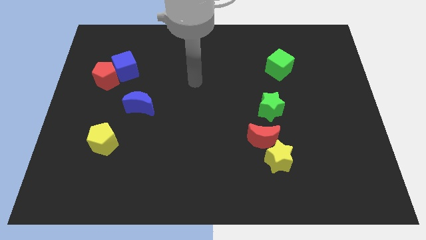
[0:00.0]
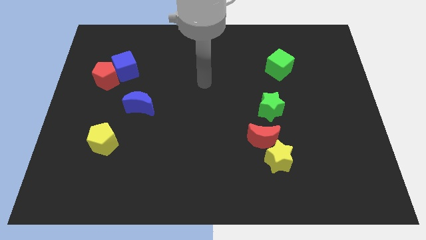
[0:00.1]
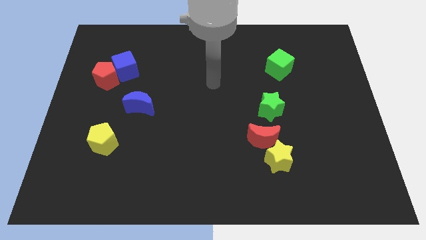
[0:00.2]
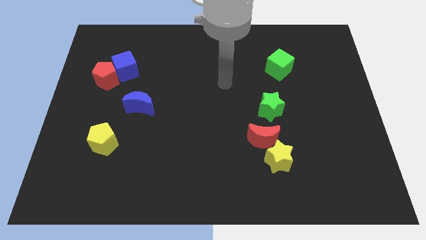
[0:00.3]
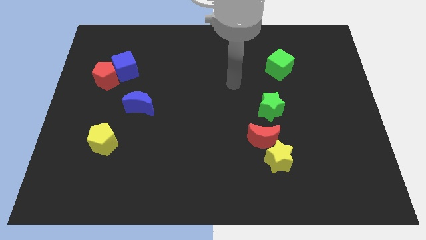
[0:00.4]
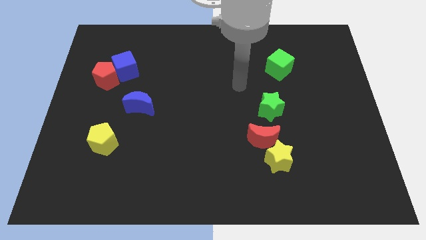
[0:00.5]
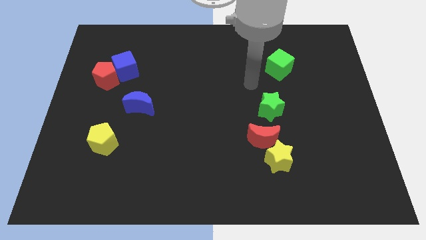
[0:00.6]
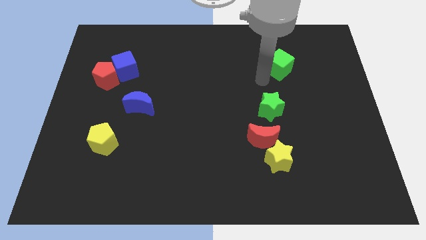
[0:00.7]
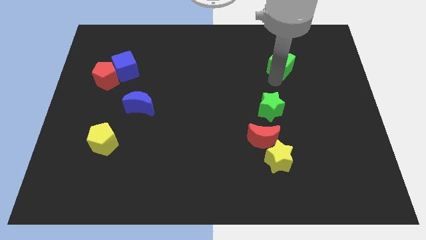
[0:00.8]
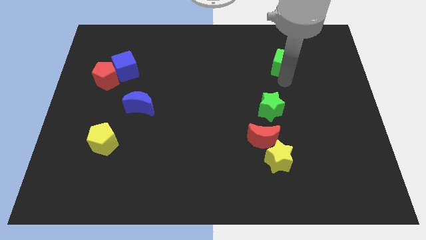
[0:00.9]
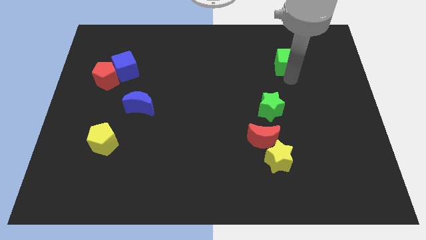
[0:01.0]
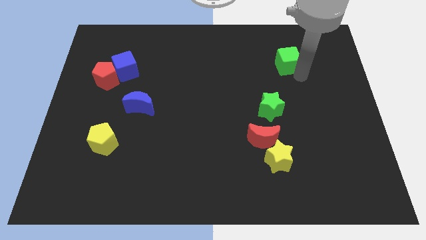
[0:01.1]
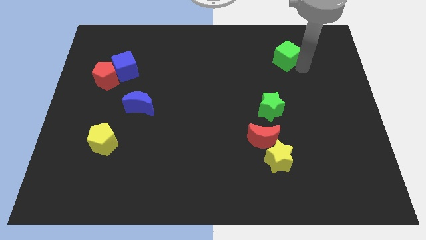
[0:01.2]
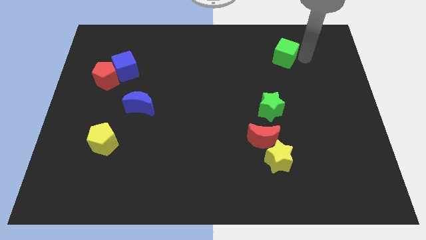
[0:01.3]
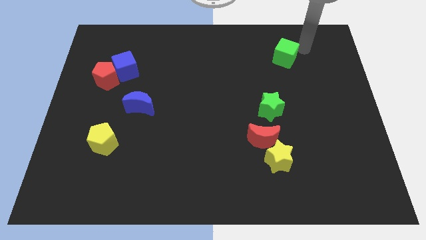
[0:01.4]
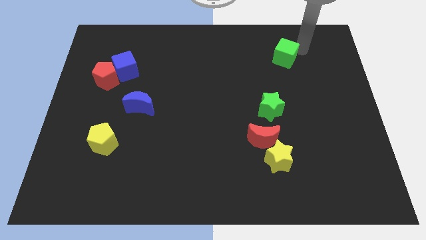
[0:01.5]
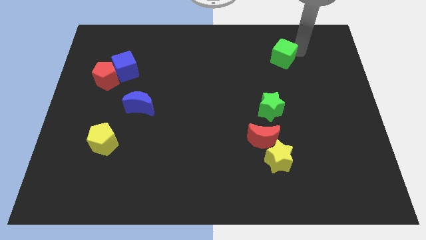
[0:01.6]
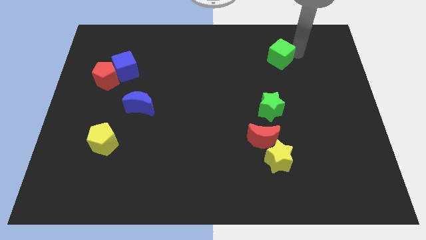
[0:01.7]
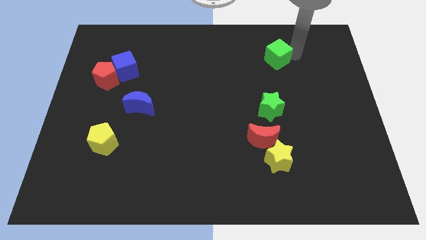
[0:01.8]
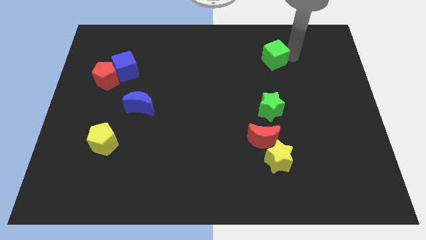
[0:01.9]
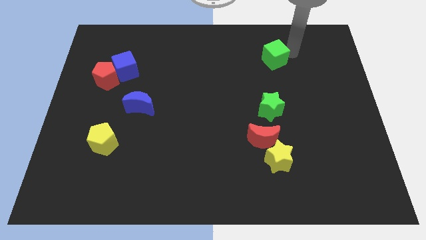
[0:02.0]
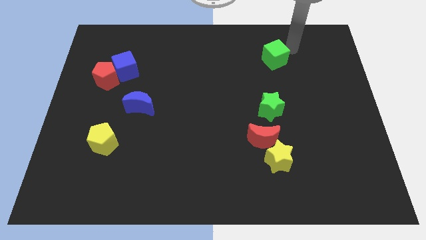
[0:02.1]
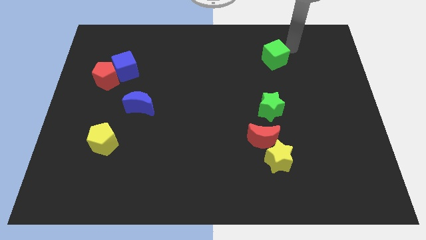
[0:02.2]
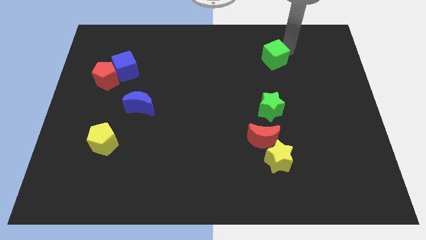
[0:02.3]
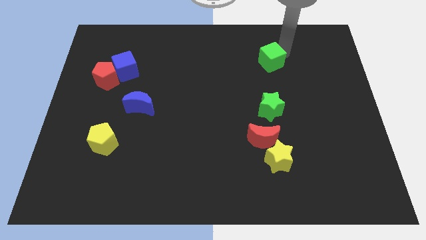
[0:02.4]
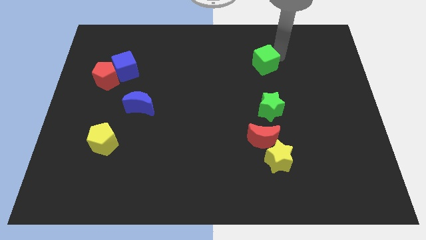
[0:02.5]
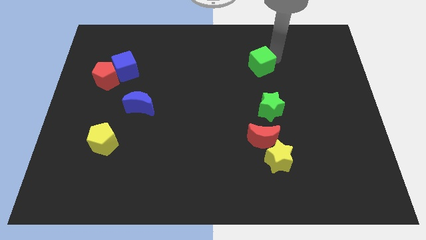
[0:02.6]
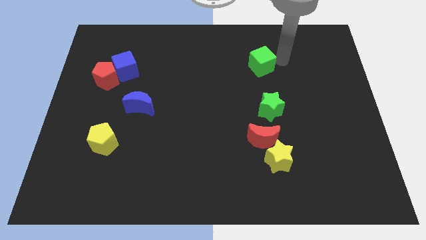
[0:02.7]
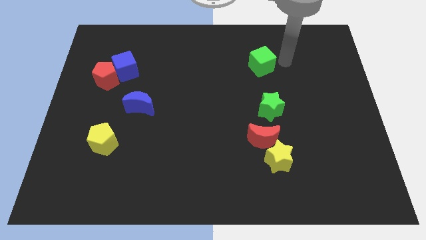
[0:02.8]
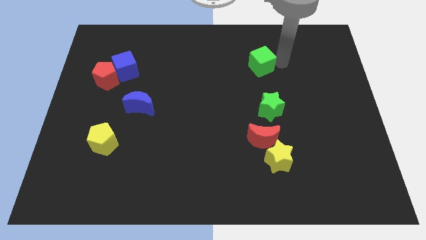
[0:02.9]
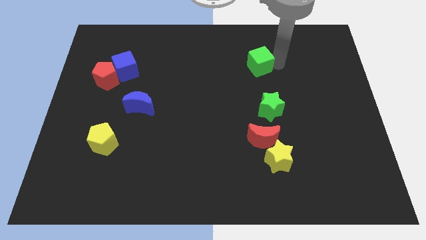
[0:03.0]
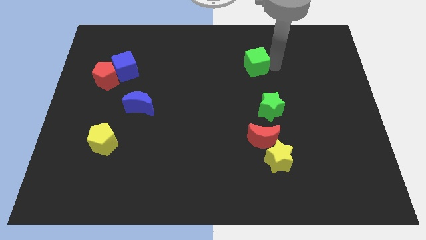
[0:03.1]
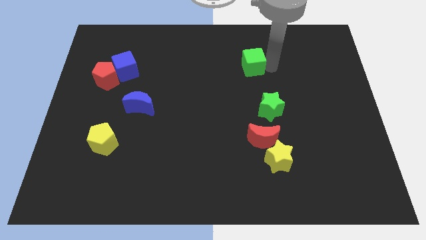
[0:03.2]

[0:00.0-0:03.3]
slide the green cube to the left a little

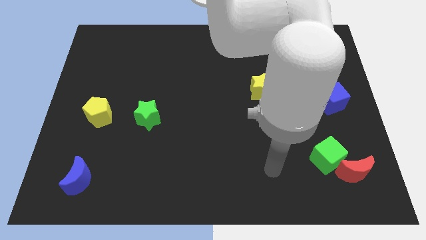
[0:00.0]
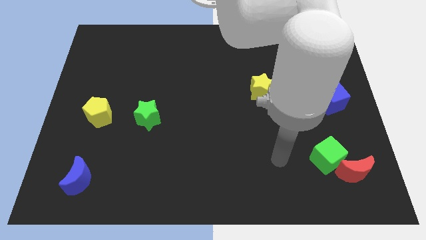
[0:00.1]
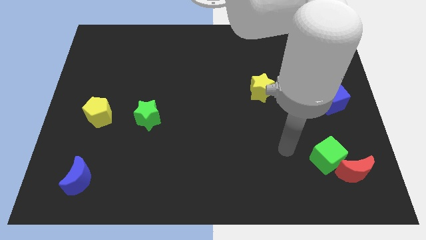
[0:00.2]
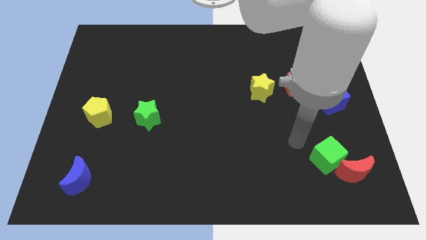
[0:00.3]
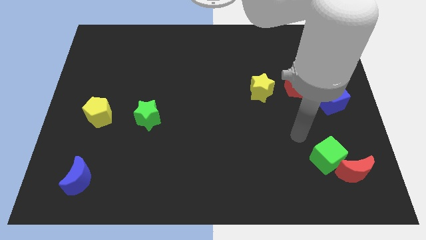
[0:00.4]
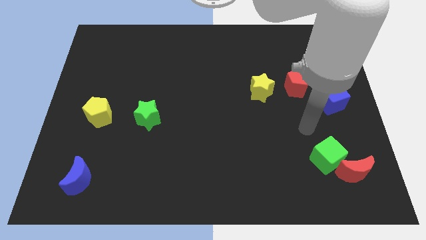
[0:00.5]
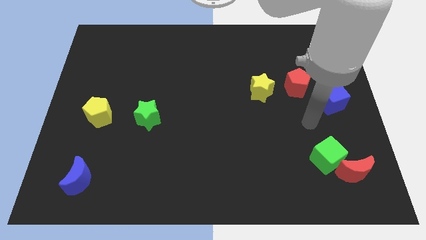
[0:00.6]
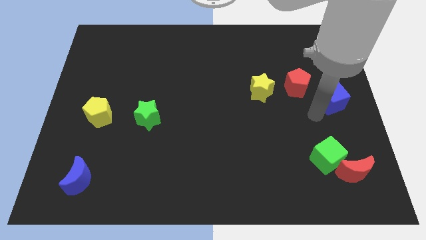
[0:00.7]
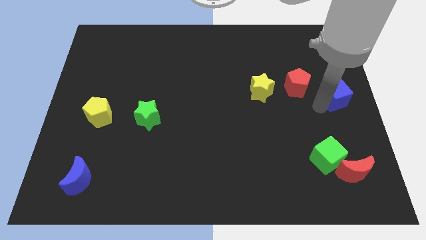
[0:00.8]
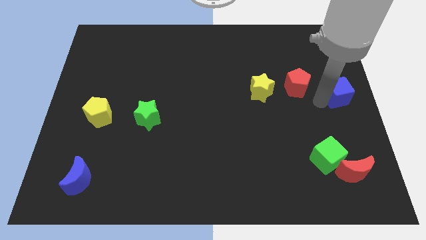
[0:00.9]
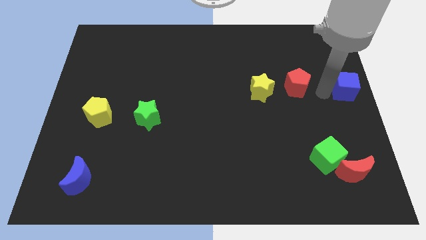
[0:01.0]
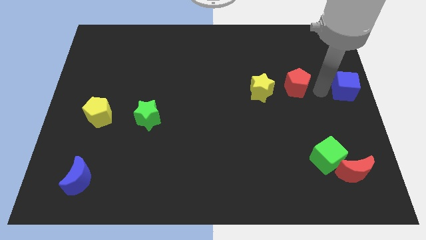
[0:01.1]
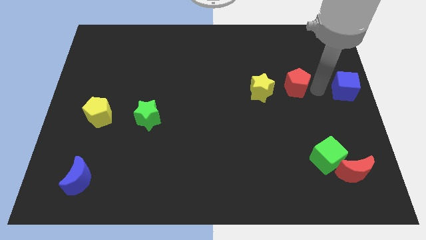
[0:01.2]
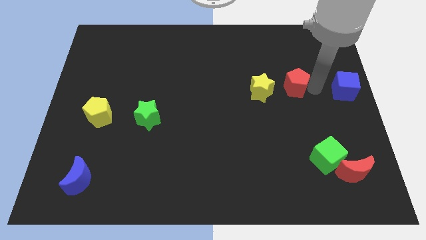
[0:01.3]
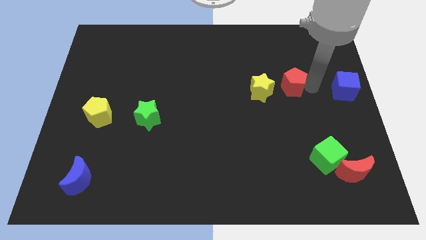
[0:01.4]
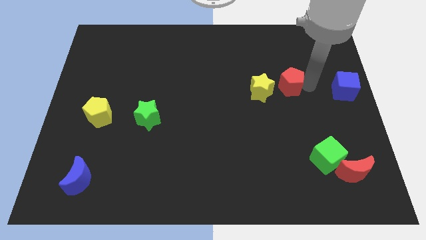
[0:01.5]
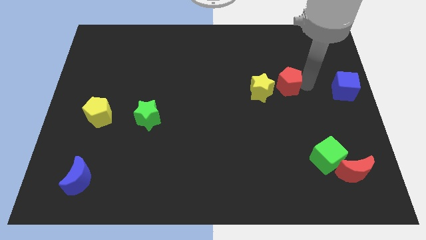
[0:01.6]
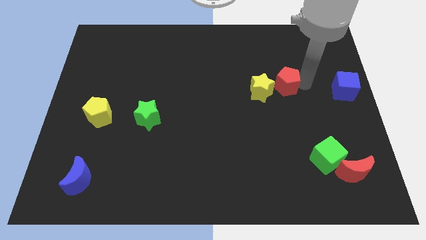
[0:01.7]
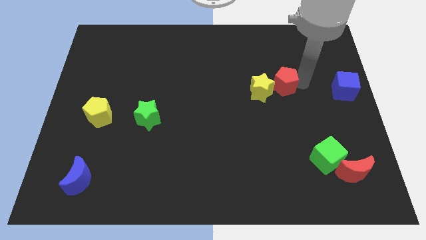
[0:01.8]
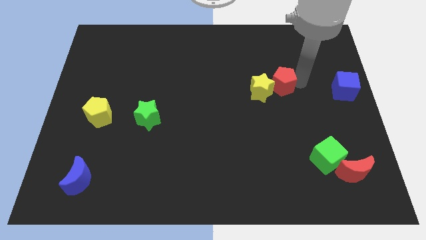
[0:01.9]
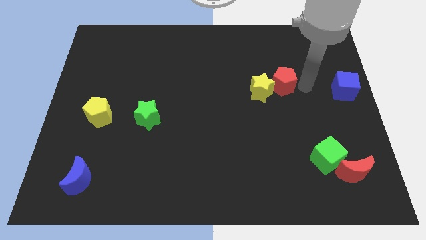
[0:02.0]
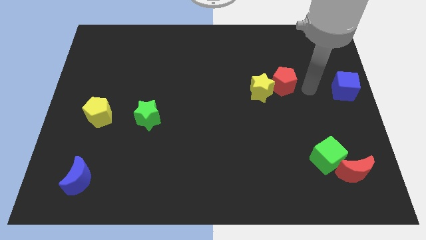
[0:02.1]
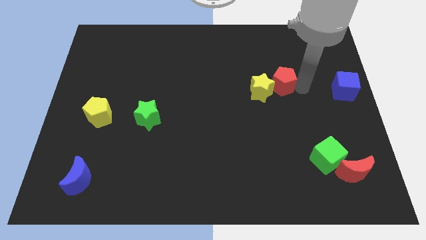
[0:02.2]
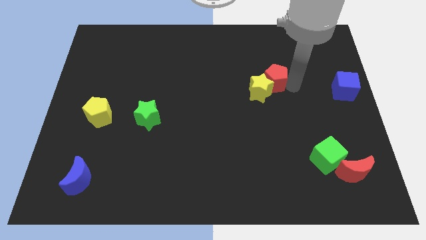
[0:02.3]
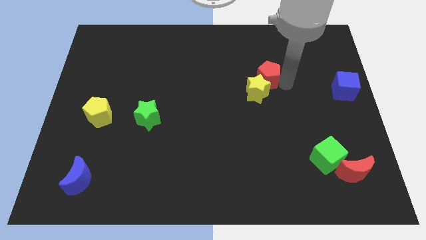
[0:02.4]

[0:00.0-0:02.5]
slightly move the red pentagon left

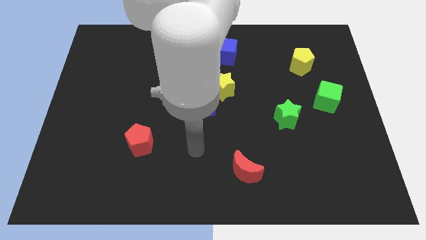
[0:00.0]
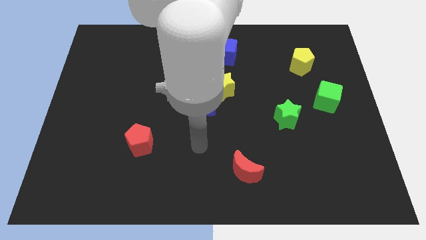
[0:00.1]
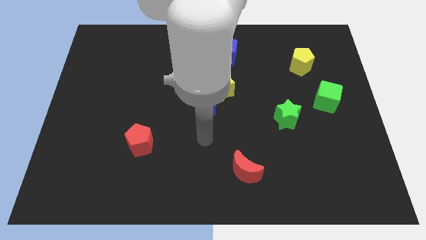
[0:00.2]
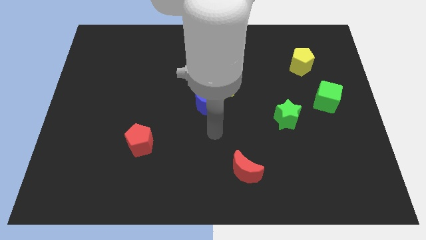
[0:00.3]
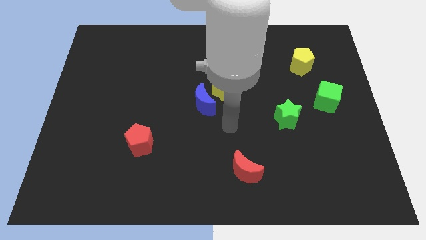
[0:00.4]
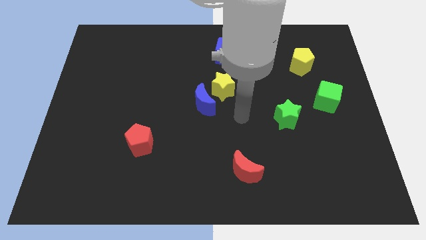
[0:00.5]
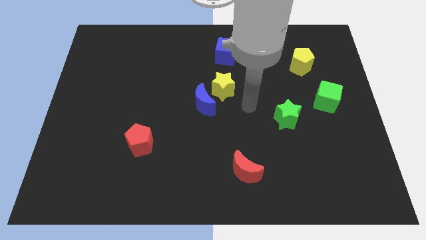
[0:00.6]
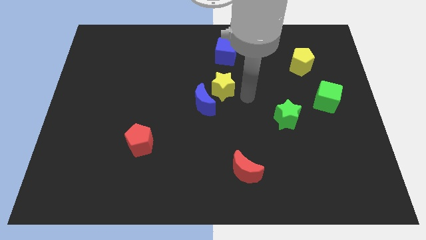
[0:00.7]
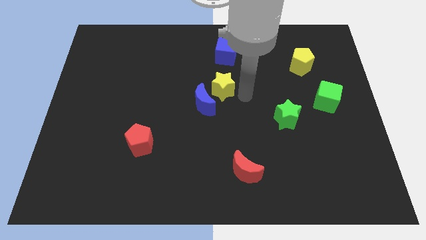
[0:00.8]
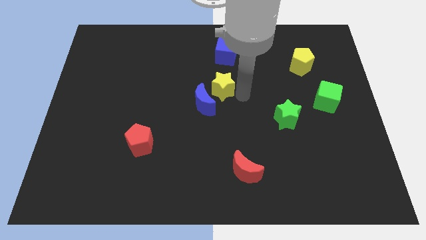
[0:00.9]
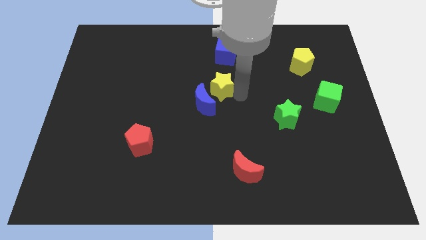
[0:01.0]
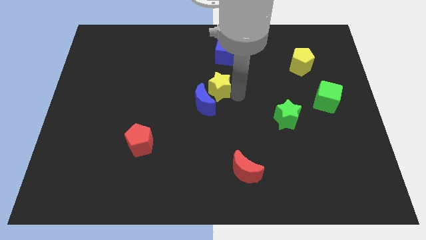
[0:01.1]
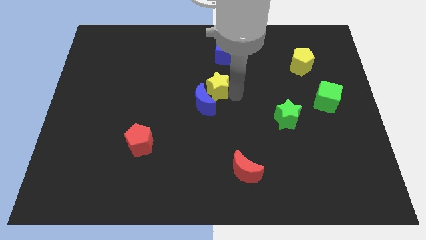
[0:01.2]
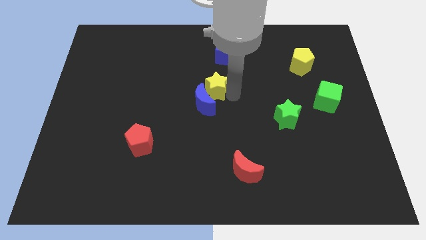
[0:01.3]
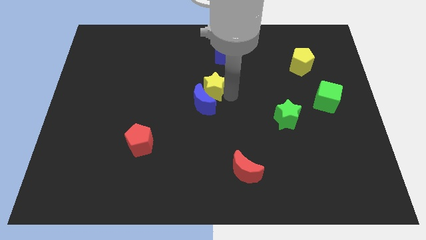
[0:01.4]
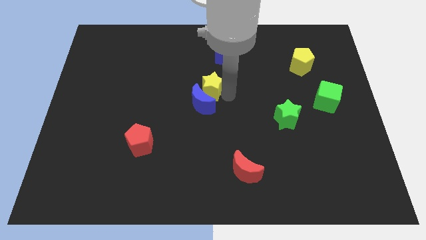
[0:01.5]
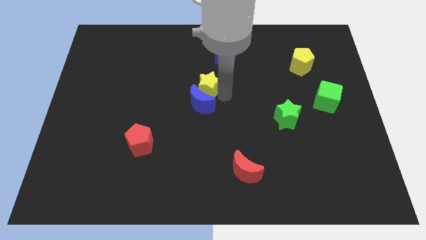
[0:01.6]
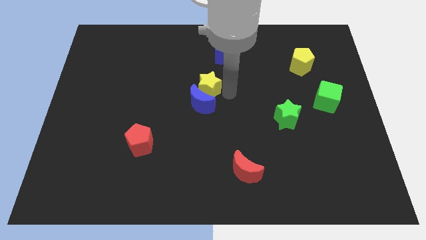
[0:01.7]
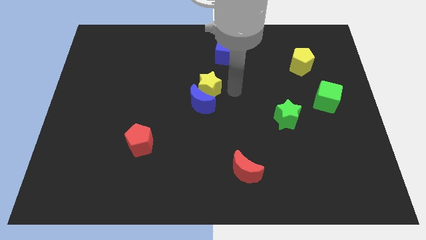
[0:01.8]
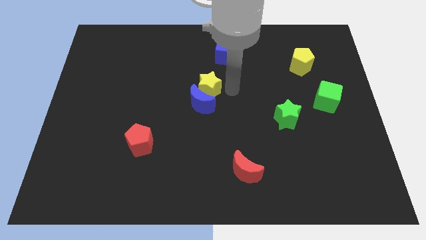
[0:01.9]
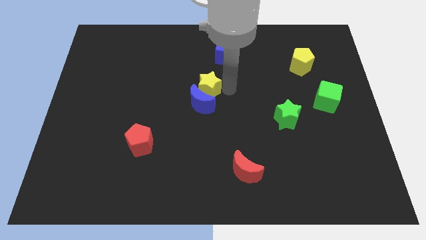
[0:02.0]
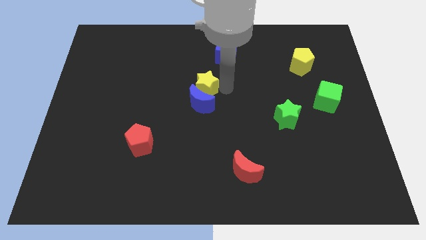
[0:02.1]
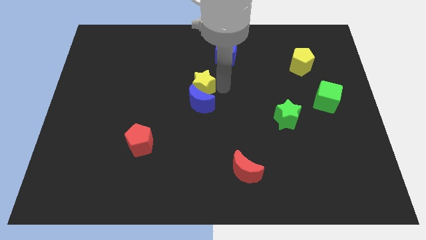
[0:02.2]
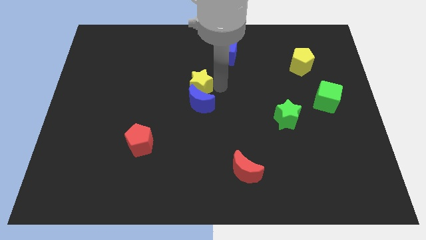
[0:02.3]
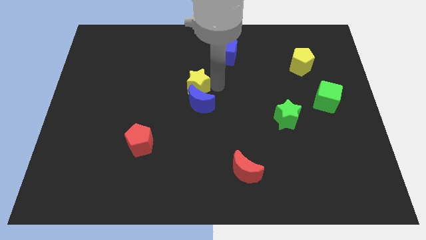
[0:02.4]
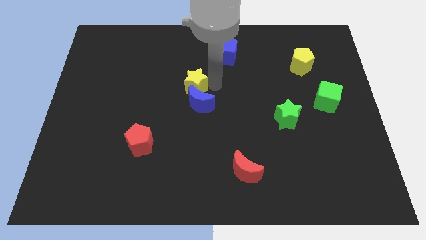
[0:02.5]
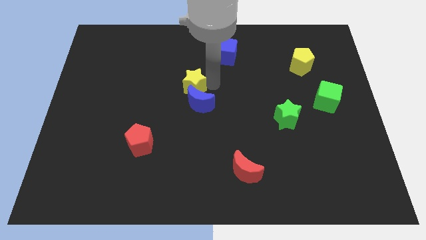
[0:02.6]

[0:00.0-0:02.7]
slide the yellow star a little bit left

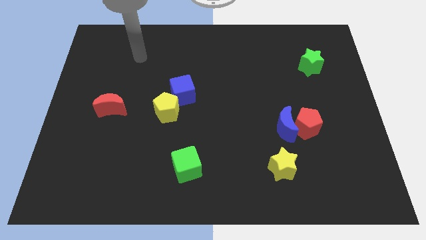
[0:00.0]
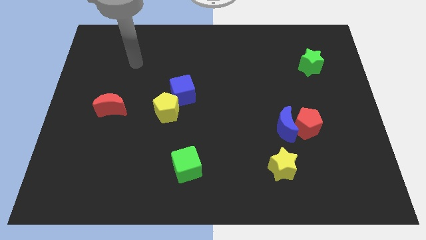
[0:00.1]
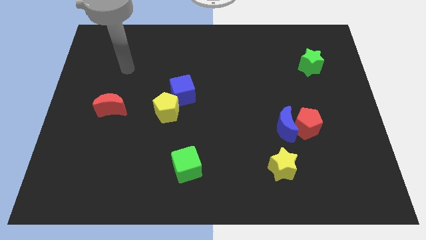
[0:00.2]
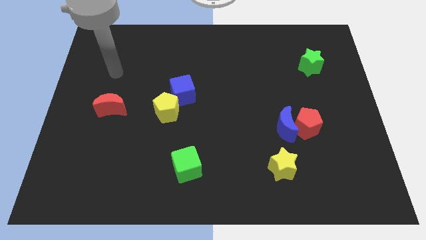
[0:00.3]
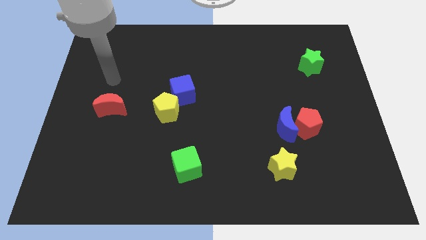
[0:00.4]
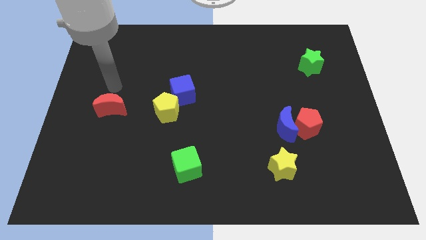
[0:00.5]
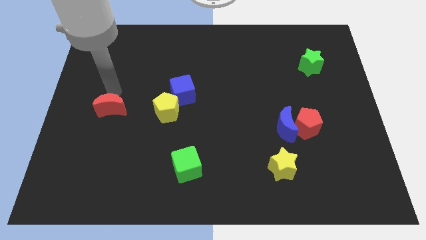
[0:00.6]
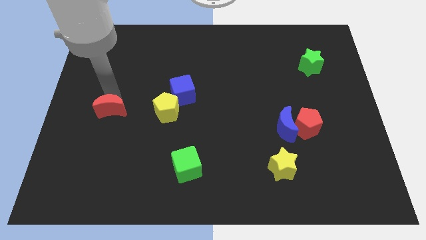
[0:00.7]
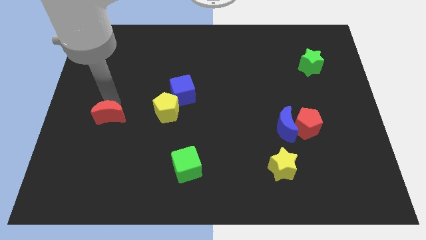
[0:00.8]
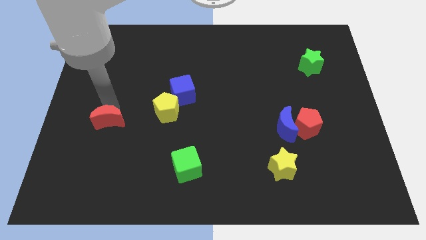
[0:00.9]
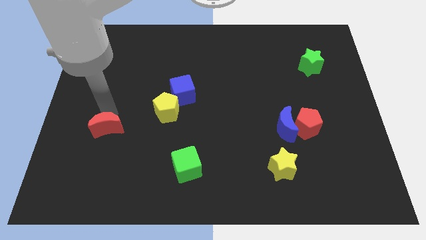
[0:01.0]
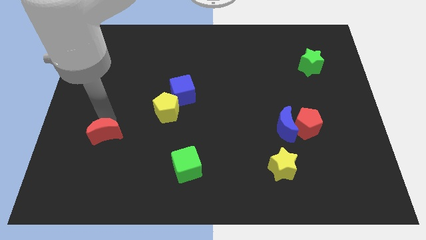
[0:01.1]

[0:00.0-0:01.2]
slightly slide the red moon downwards
